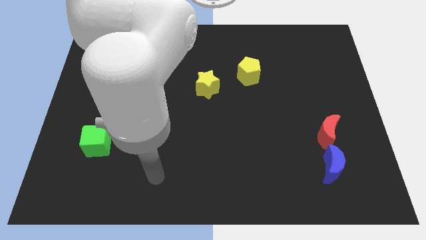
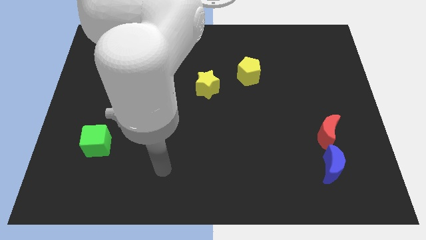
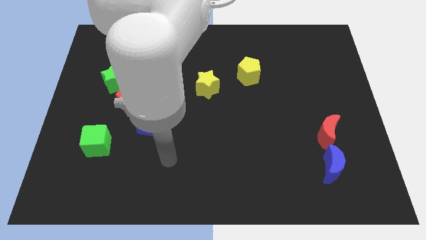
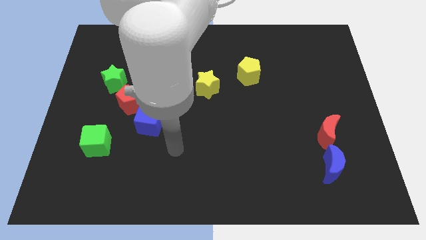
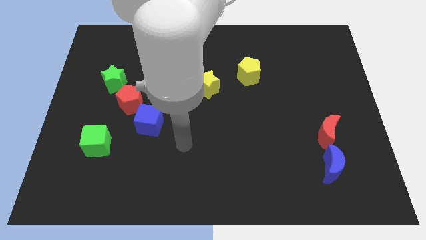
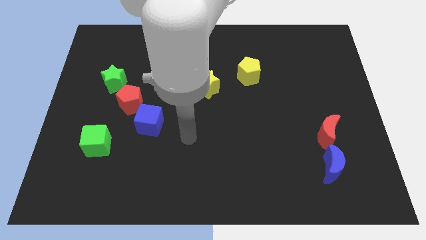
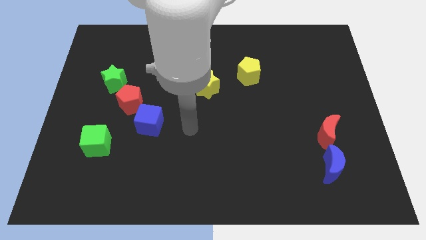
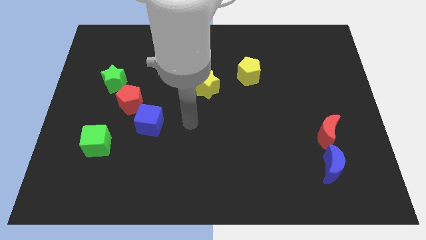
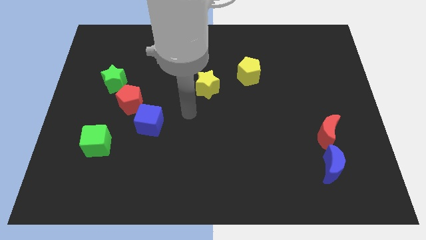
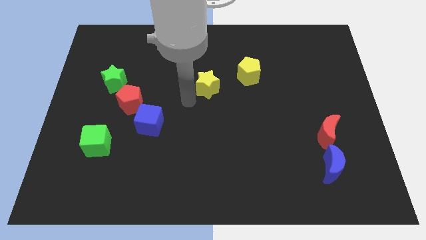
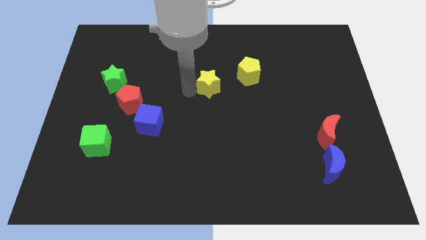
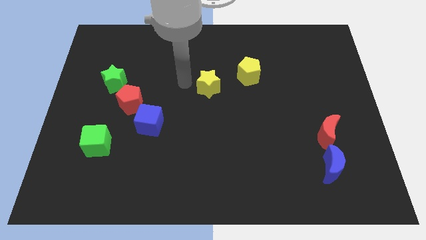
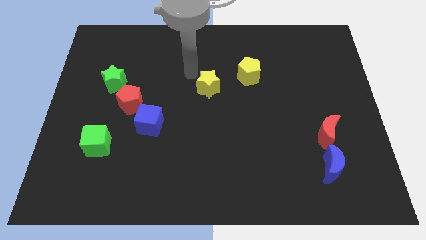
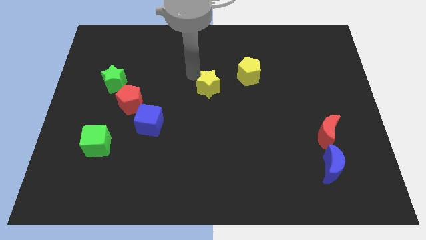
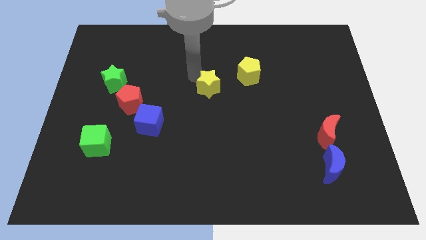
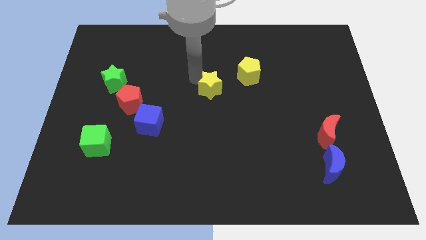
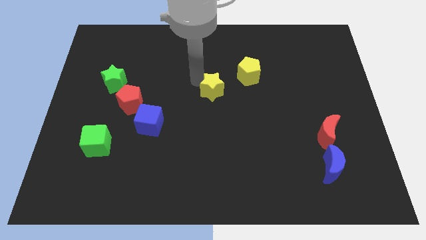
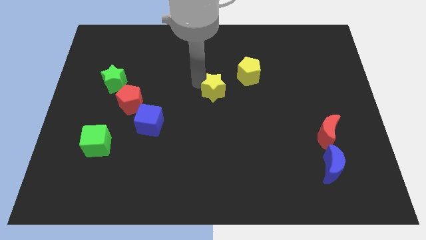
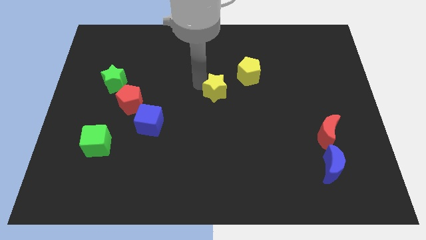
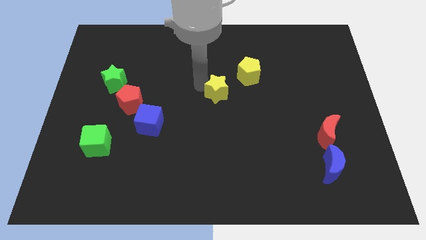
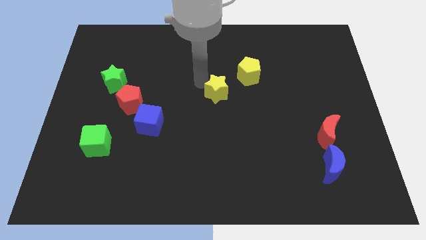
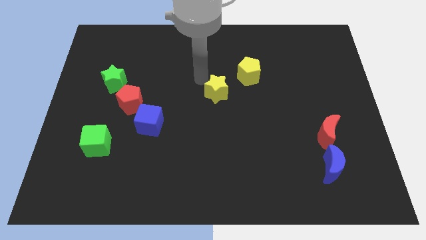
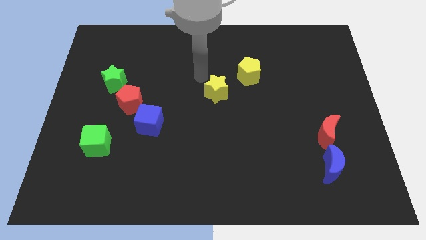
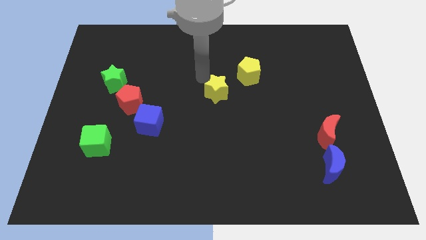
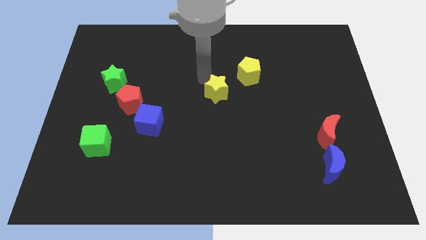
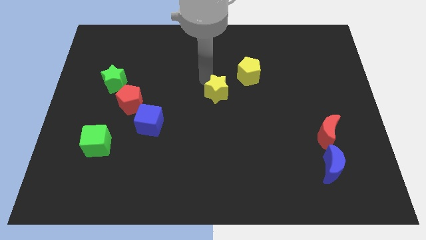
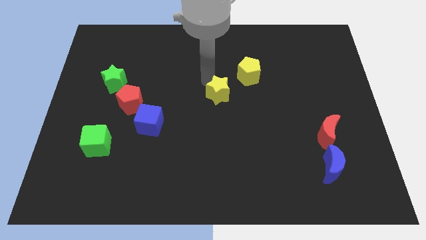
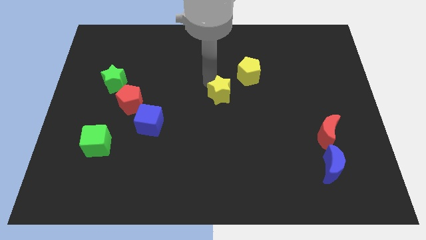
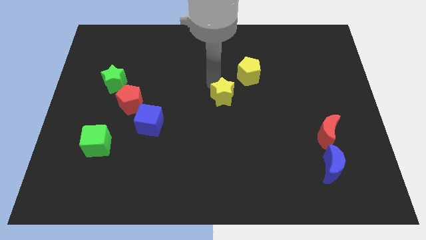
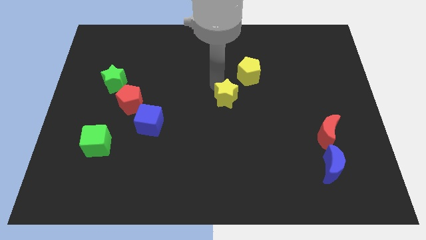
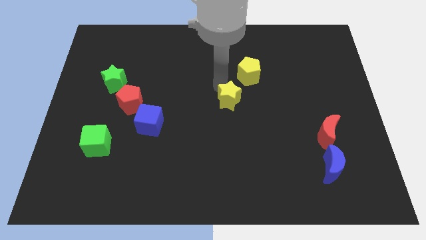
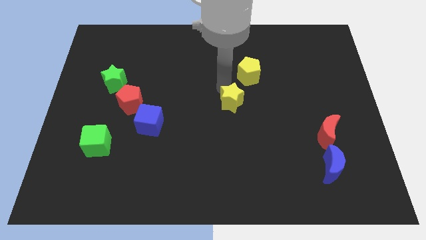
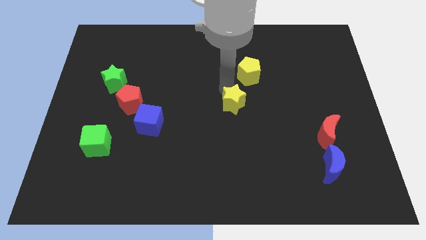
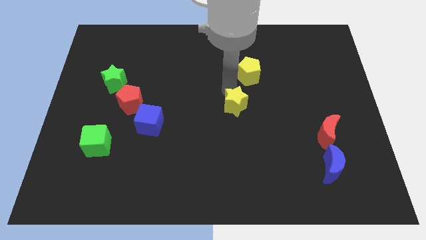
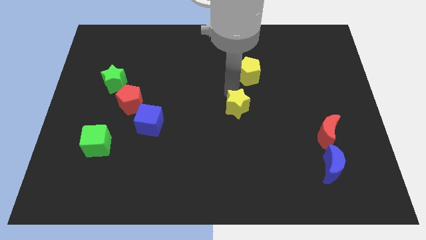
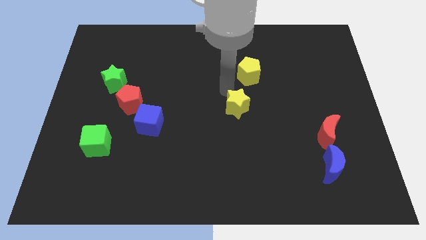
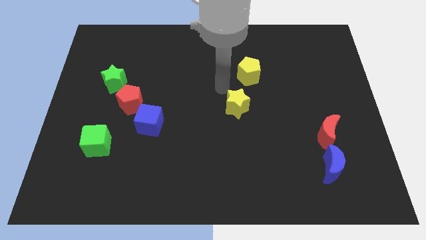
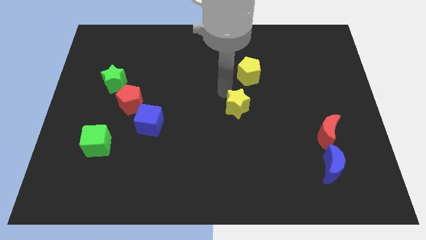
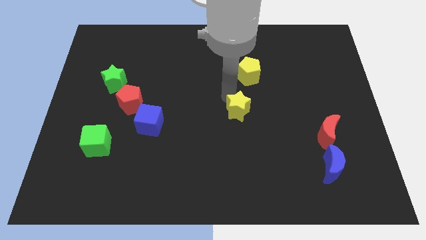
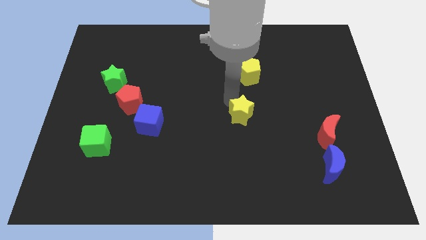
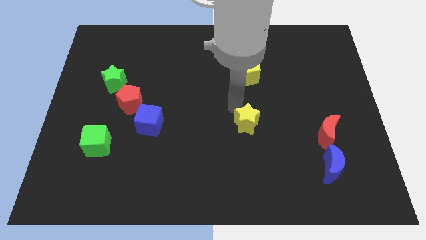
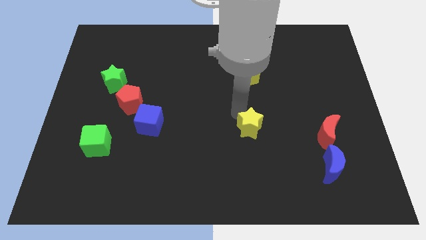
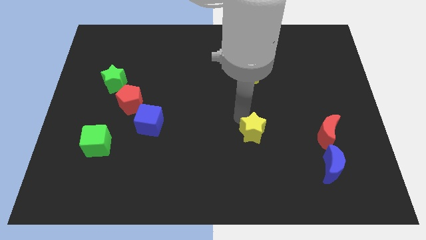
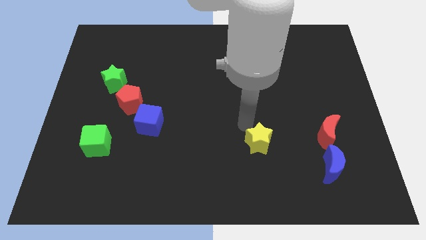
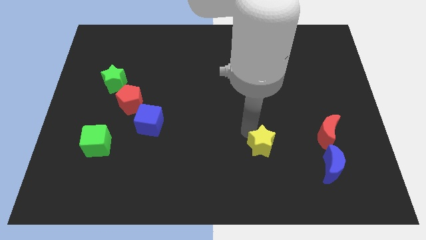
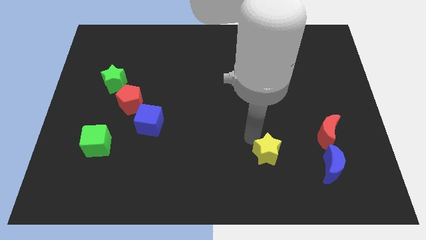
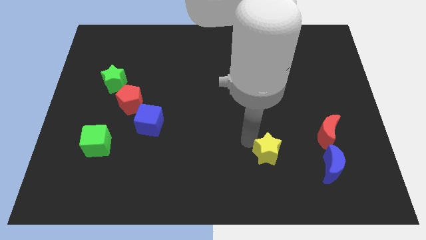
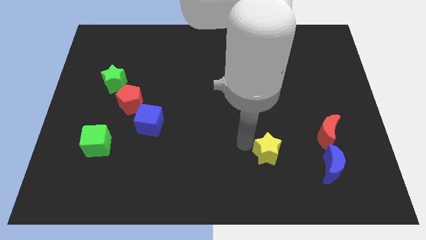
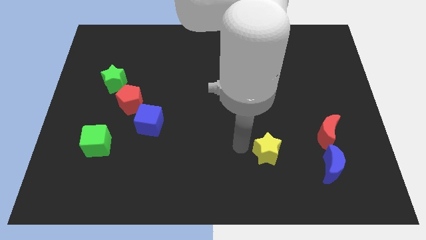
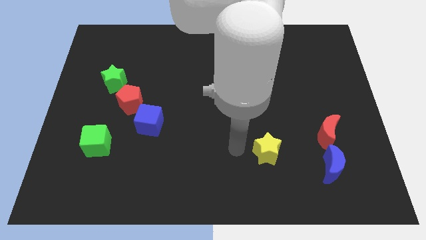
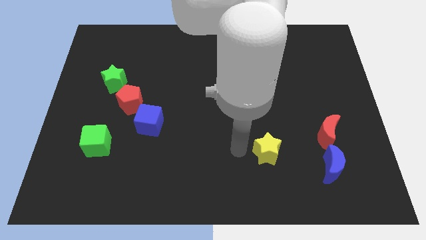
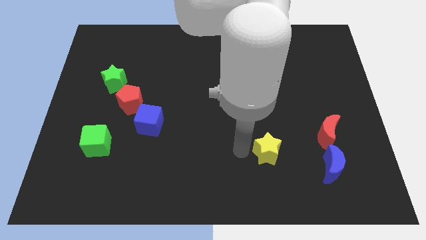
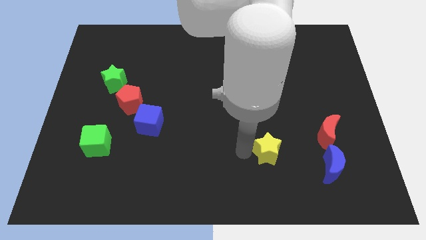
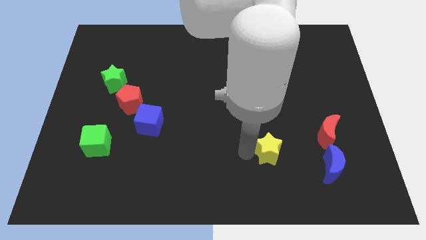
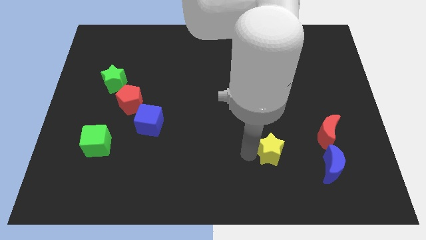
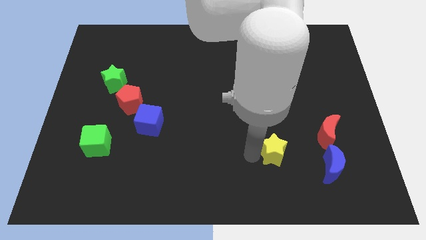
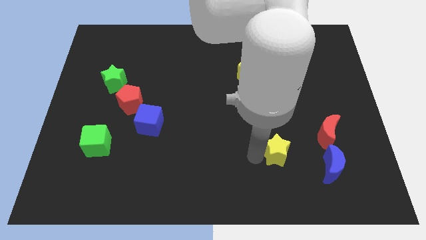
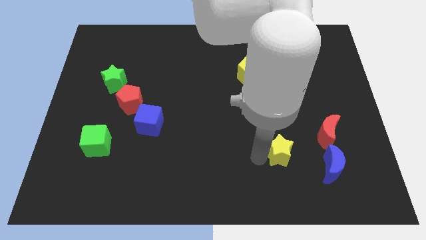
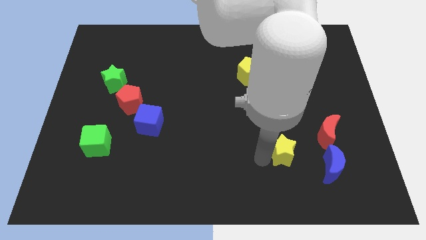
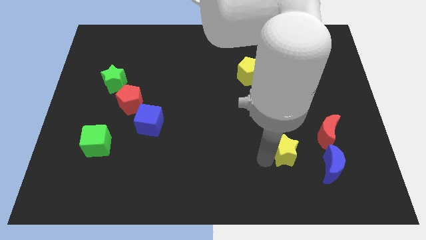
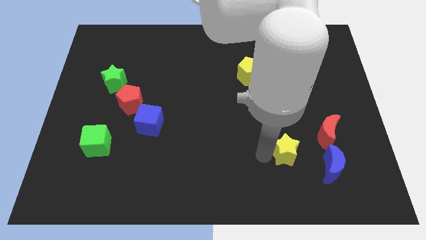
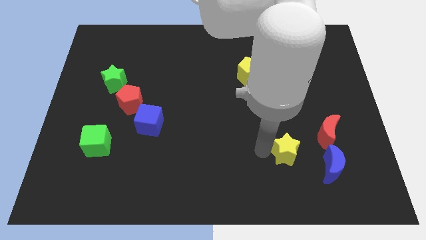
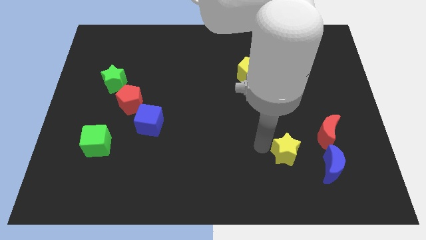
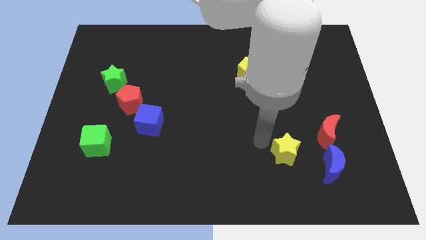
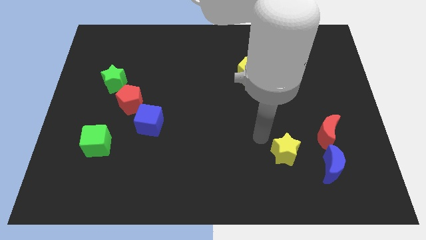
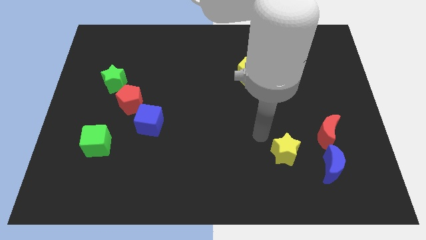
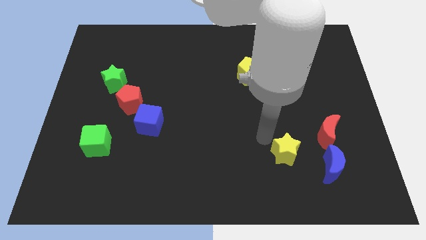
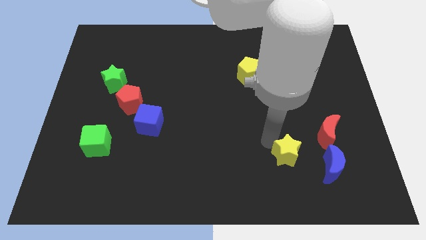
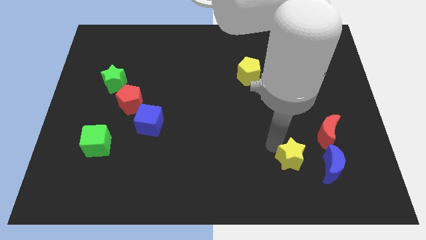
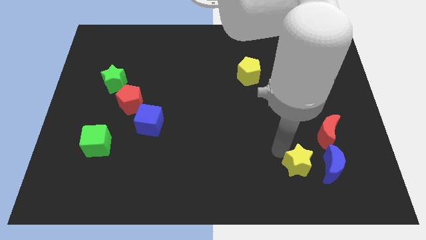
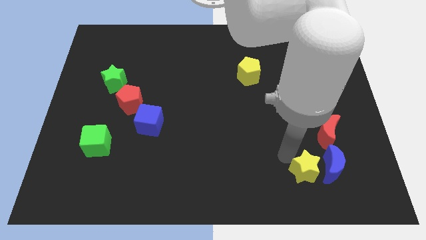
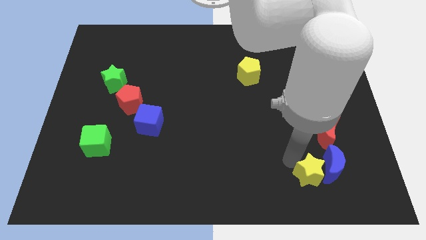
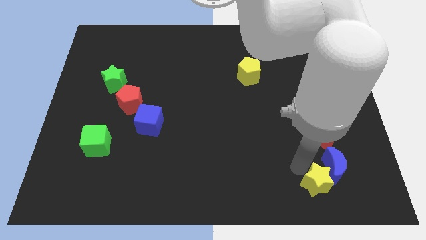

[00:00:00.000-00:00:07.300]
put the yellow star to the bottom of the red moon
